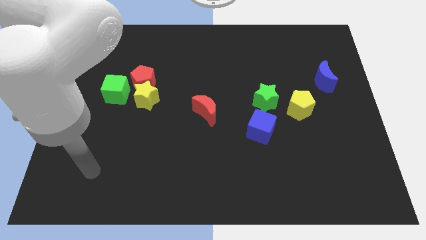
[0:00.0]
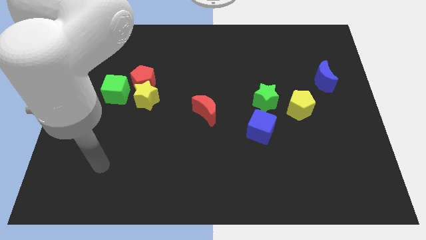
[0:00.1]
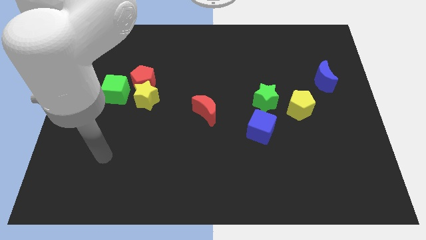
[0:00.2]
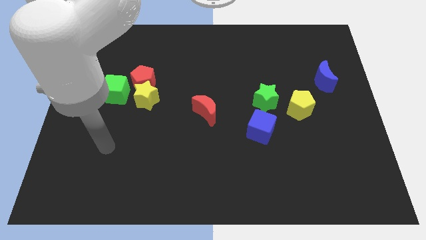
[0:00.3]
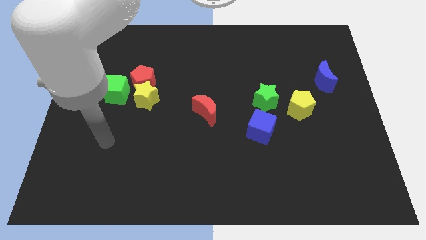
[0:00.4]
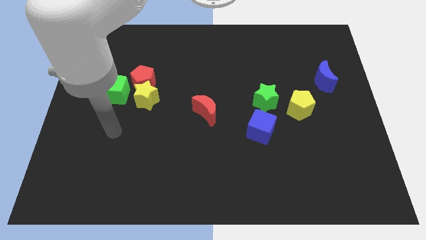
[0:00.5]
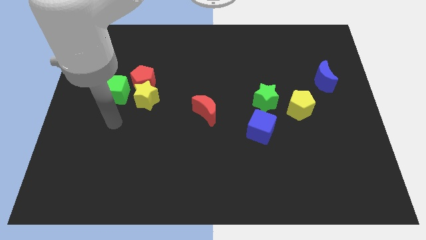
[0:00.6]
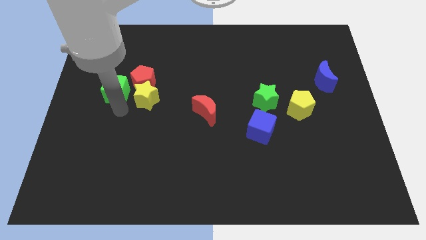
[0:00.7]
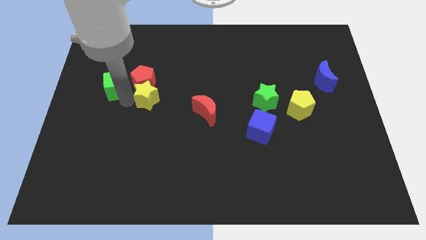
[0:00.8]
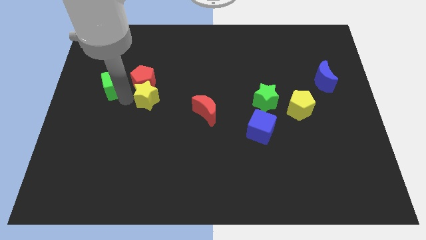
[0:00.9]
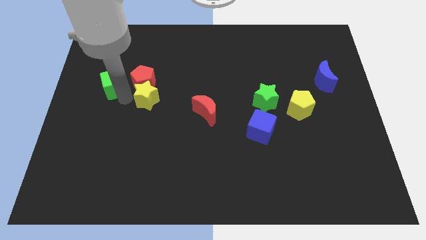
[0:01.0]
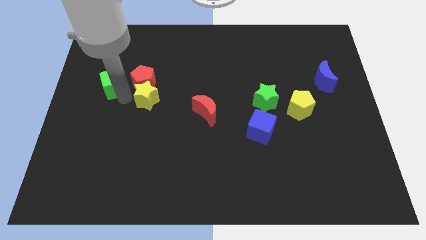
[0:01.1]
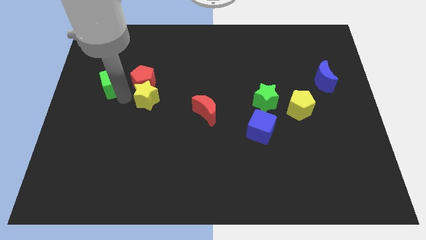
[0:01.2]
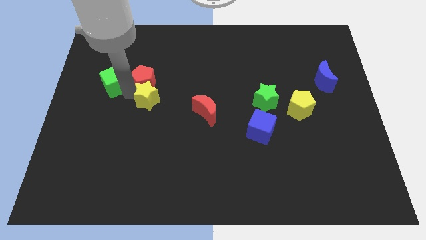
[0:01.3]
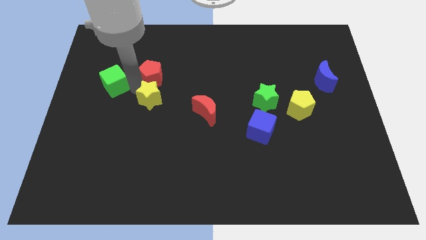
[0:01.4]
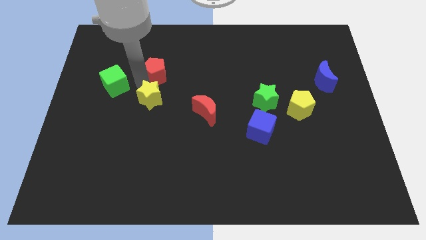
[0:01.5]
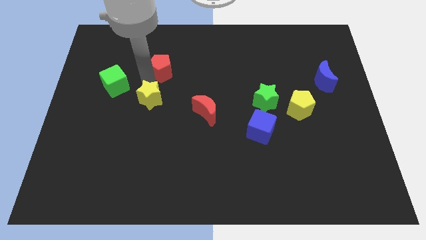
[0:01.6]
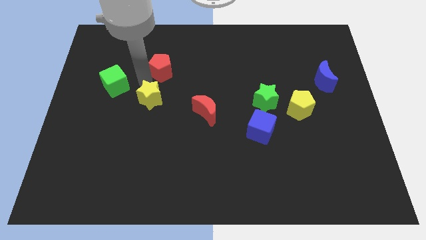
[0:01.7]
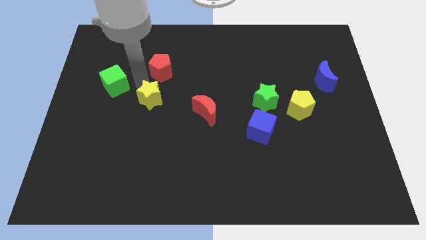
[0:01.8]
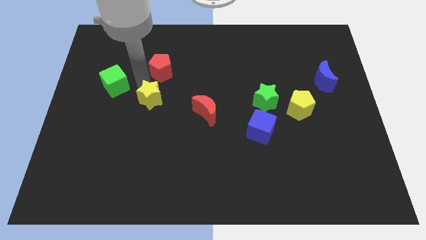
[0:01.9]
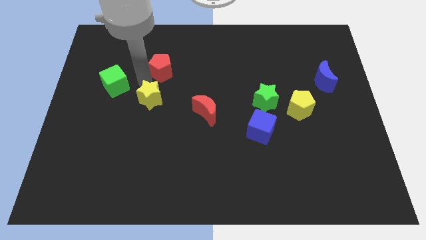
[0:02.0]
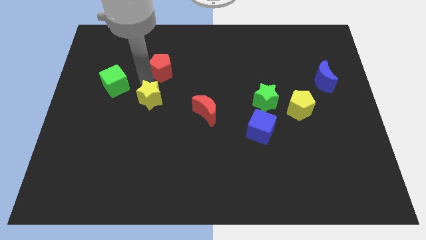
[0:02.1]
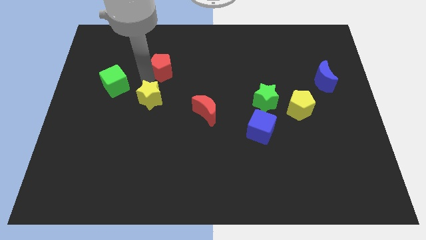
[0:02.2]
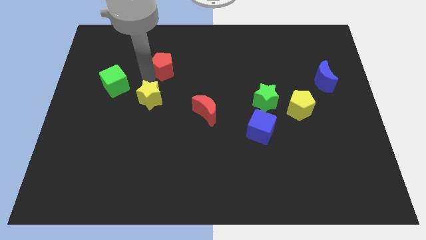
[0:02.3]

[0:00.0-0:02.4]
separate the red pentagon from the yellow star and green cube

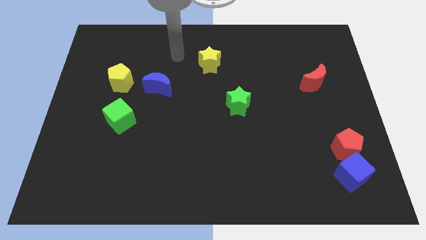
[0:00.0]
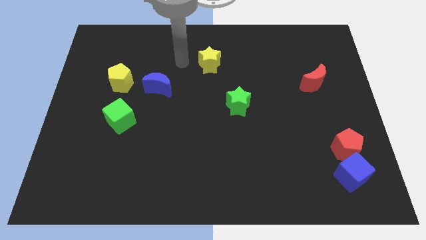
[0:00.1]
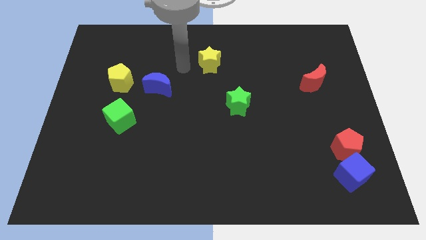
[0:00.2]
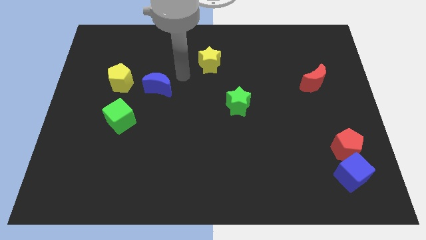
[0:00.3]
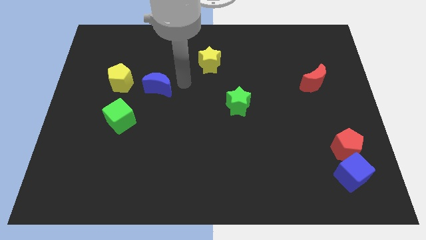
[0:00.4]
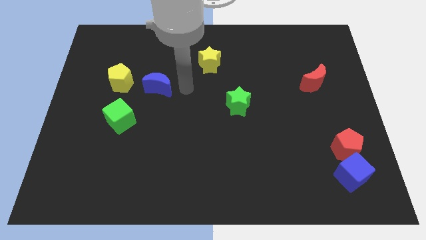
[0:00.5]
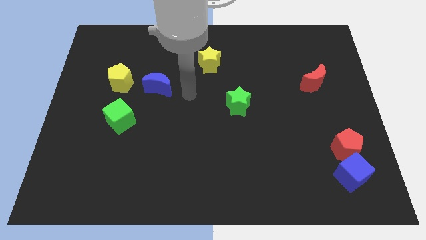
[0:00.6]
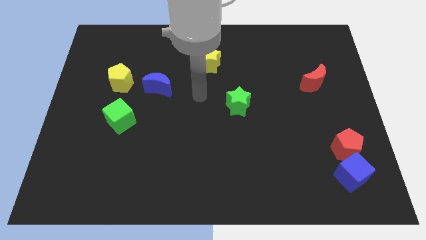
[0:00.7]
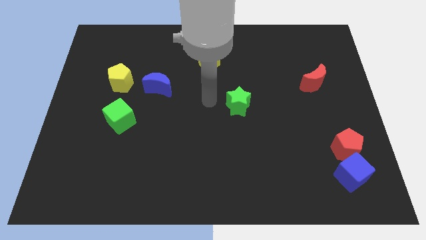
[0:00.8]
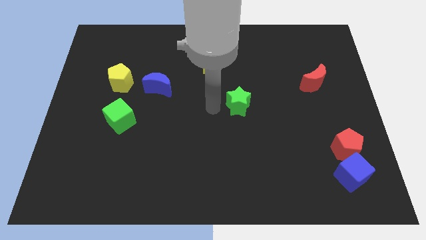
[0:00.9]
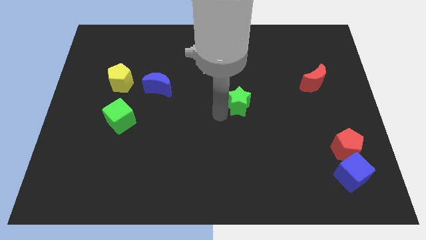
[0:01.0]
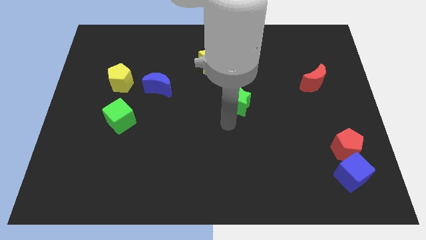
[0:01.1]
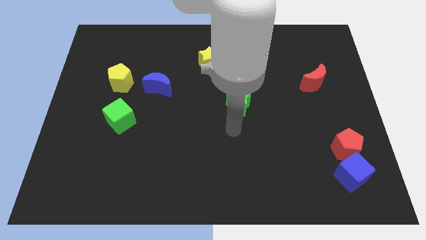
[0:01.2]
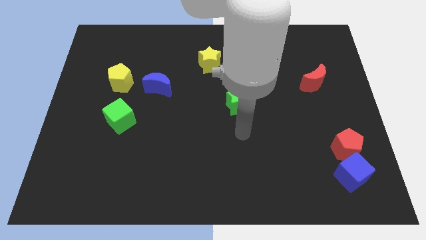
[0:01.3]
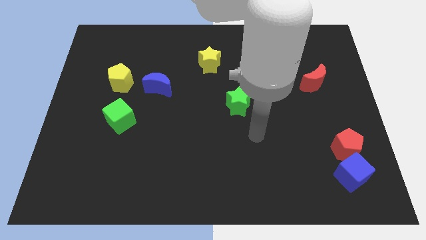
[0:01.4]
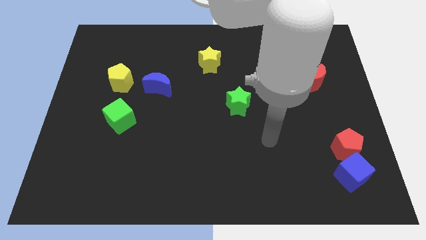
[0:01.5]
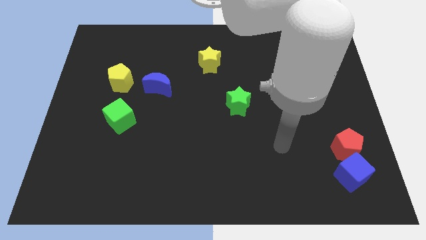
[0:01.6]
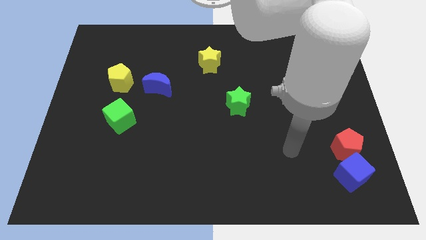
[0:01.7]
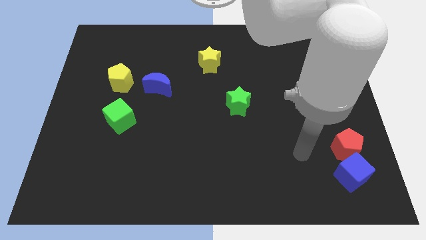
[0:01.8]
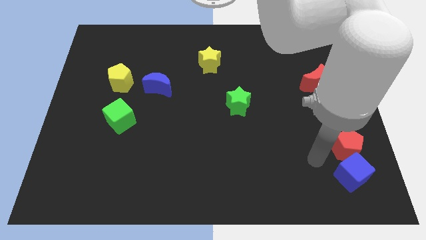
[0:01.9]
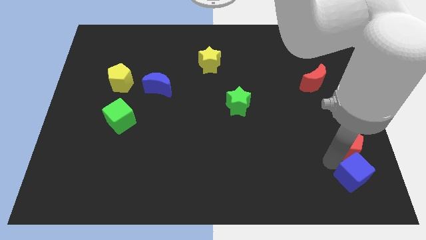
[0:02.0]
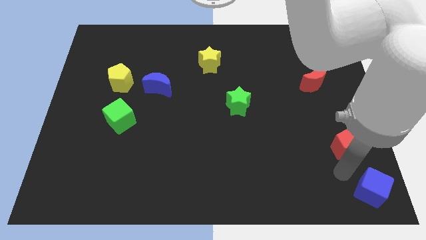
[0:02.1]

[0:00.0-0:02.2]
move the red pentagon away from the blue cube

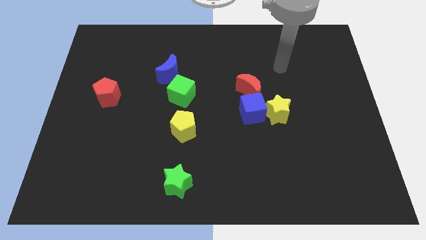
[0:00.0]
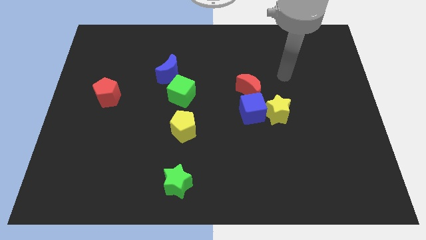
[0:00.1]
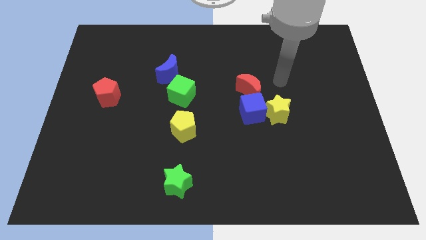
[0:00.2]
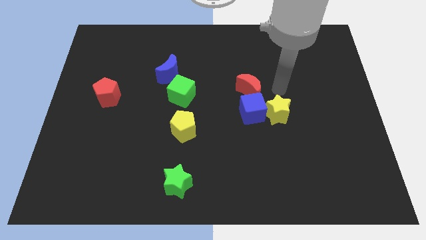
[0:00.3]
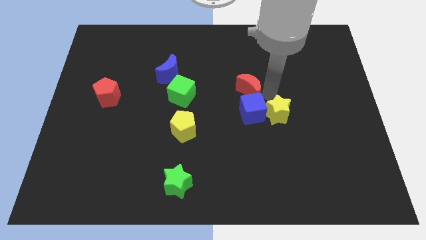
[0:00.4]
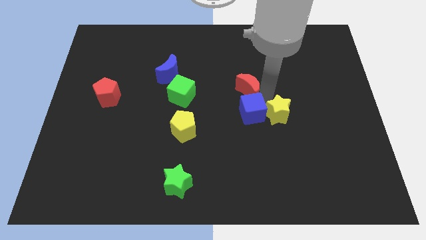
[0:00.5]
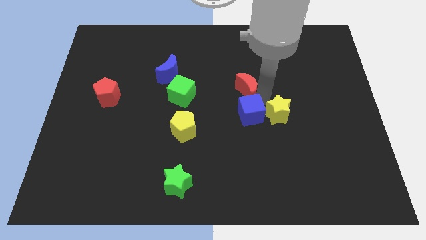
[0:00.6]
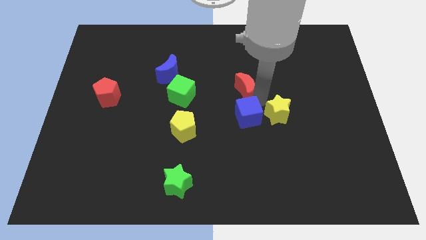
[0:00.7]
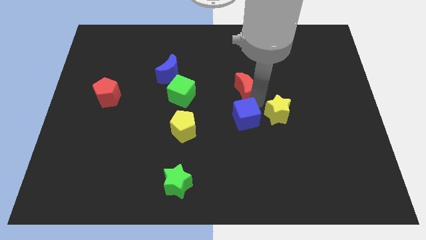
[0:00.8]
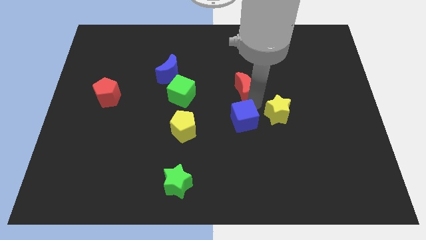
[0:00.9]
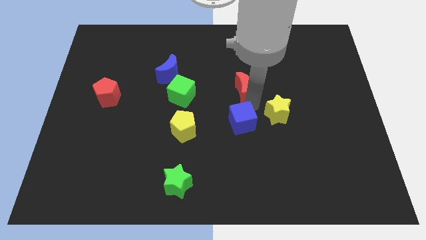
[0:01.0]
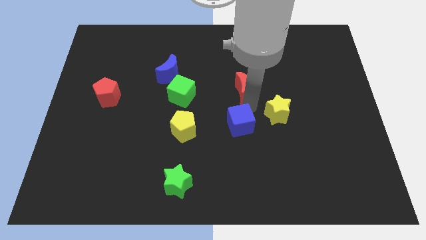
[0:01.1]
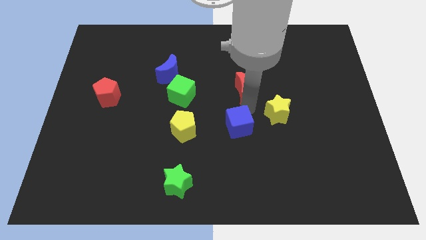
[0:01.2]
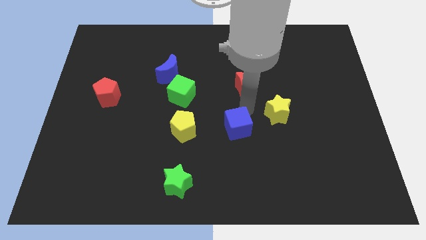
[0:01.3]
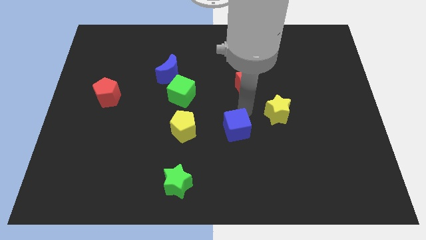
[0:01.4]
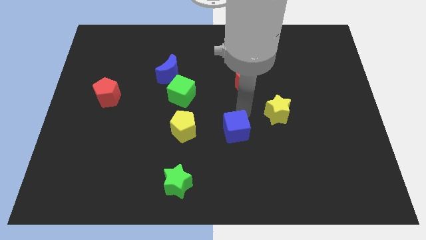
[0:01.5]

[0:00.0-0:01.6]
move the blue cube away from the yellow star and red moon

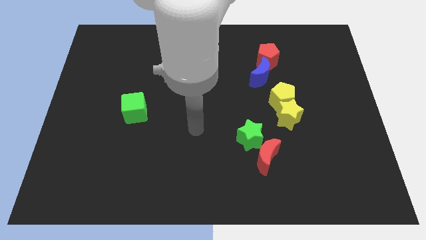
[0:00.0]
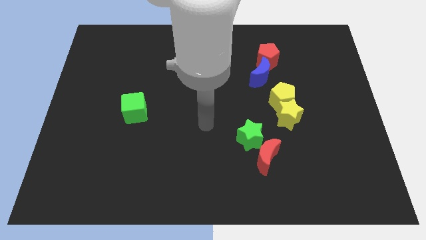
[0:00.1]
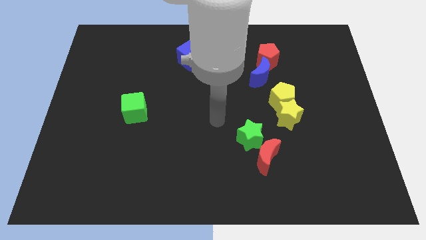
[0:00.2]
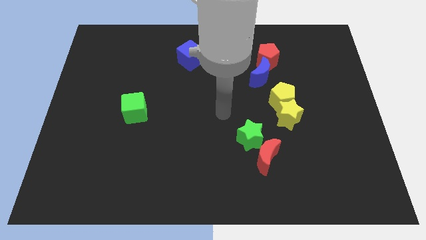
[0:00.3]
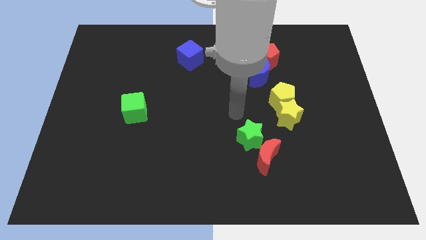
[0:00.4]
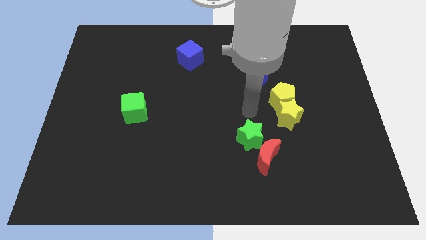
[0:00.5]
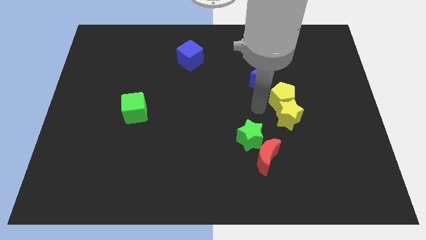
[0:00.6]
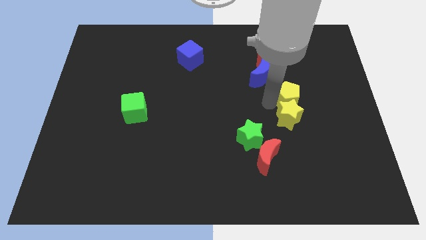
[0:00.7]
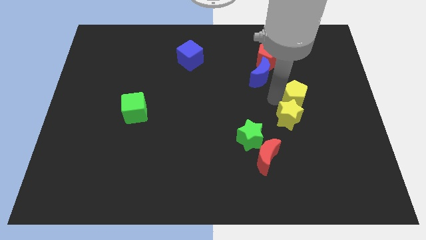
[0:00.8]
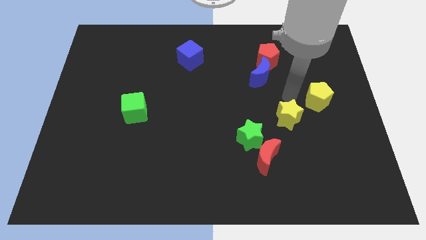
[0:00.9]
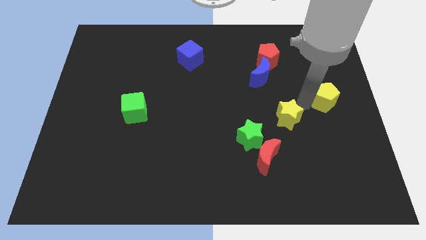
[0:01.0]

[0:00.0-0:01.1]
separate the yellow star from the yellow pentagon

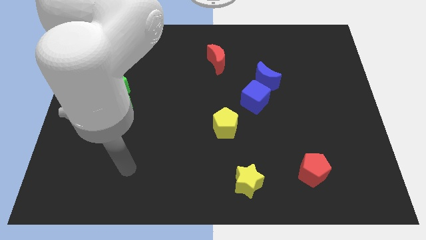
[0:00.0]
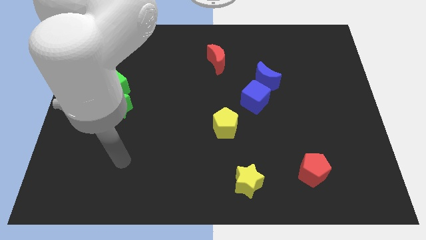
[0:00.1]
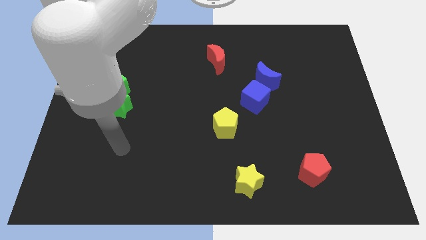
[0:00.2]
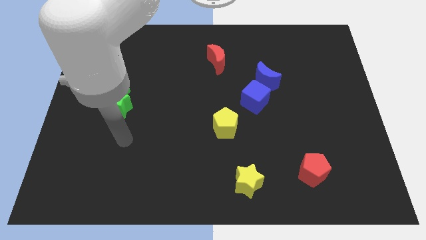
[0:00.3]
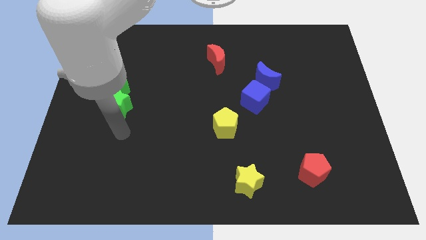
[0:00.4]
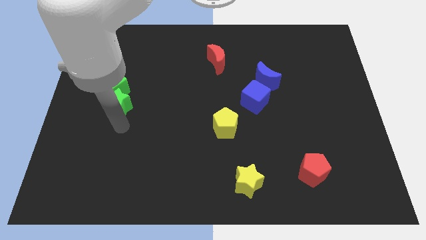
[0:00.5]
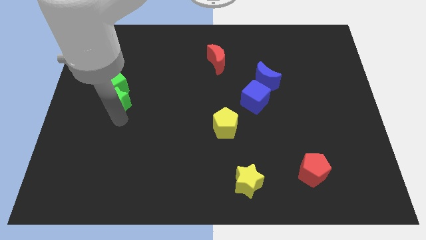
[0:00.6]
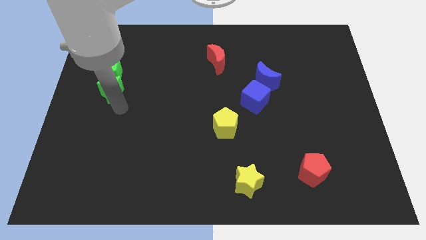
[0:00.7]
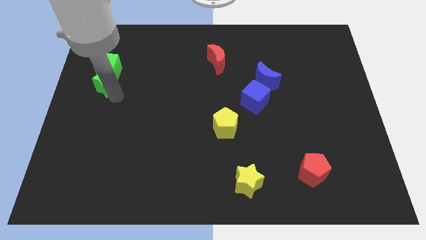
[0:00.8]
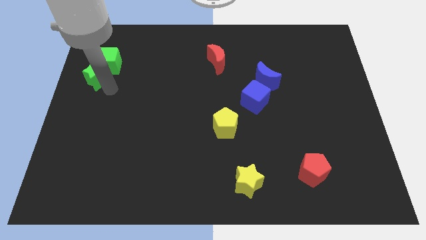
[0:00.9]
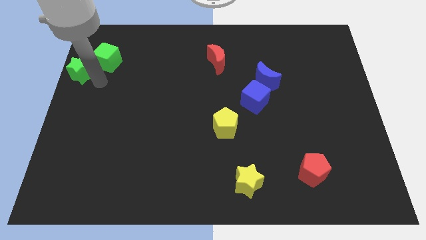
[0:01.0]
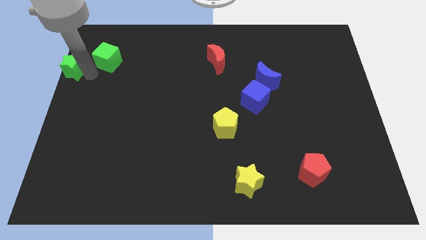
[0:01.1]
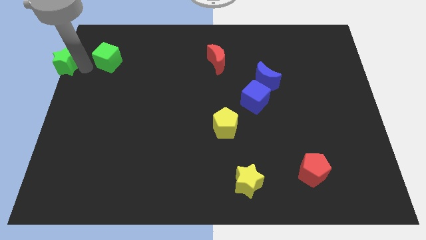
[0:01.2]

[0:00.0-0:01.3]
move the green cube away from the green star

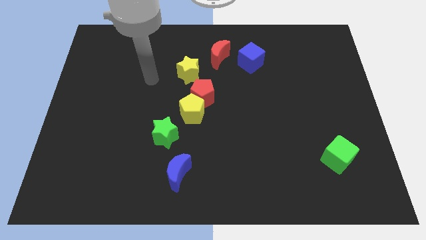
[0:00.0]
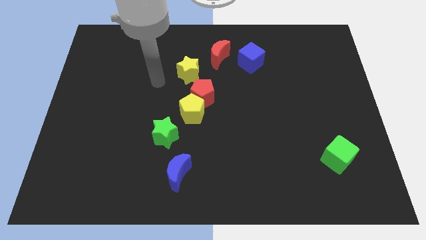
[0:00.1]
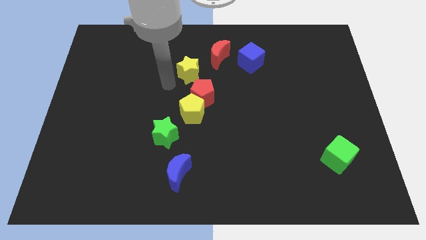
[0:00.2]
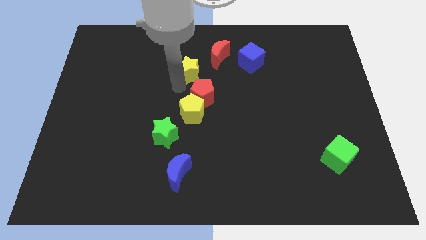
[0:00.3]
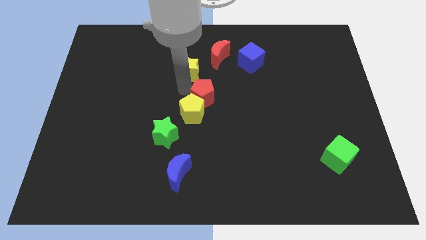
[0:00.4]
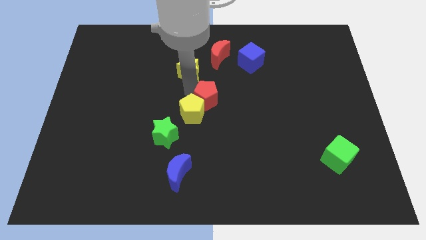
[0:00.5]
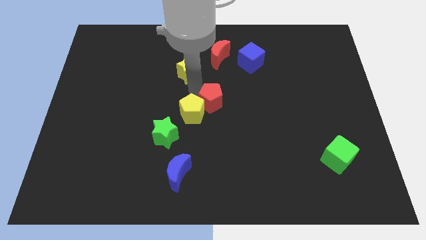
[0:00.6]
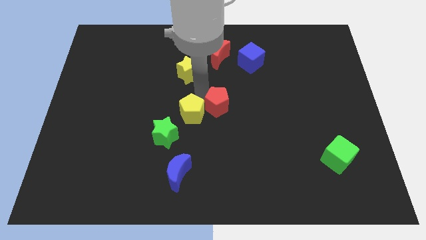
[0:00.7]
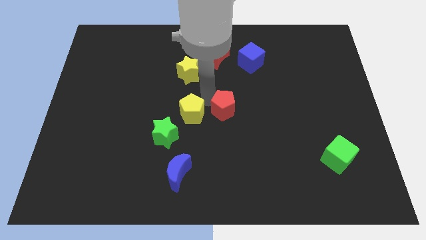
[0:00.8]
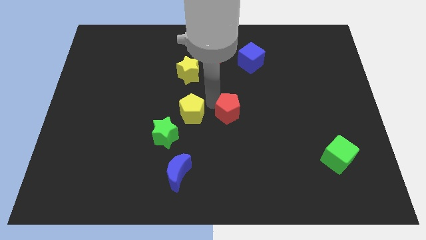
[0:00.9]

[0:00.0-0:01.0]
pull the red pentagon apart from the yellow pentagon and yellow star
